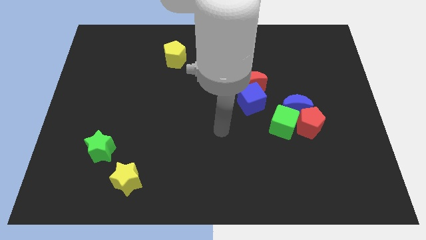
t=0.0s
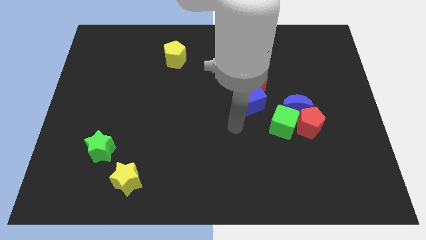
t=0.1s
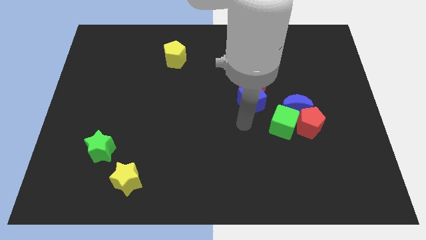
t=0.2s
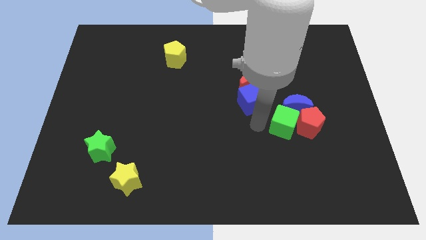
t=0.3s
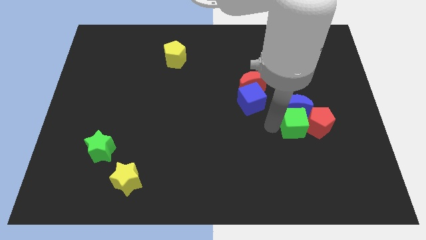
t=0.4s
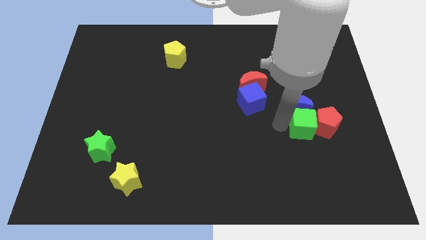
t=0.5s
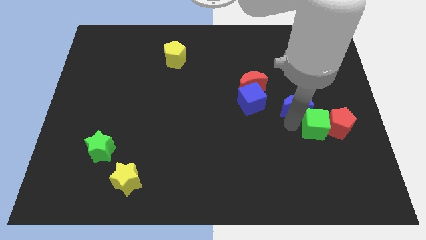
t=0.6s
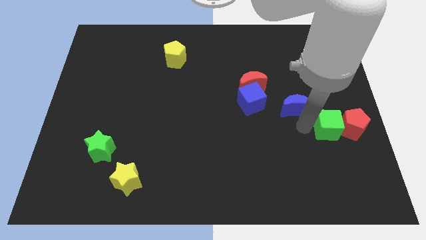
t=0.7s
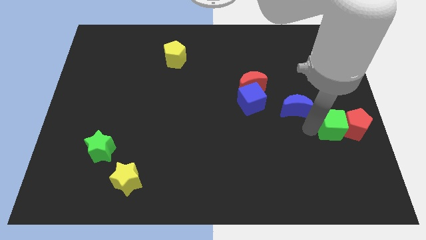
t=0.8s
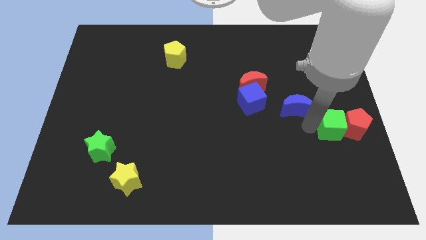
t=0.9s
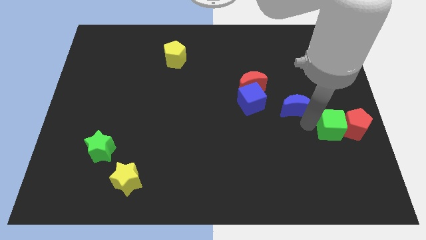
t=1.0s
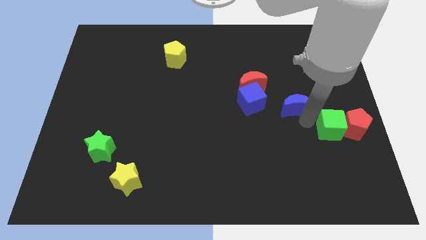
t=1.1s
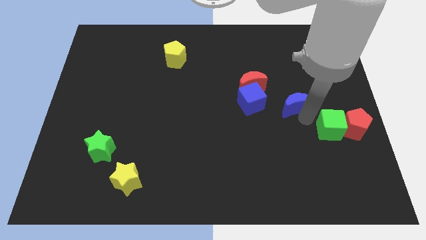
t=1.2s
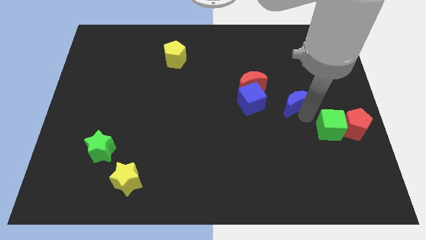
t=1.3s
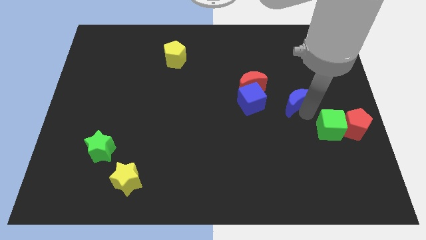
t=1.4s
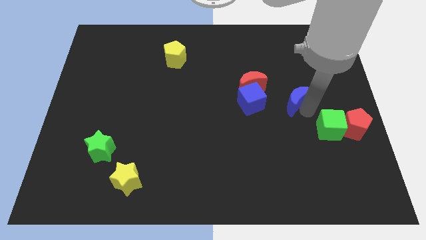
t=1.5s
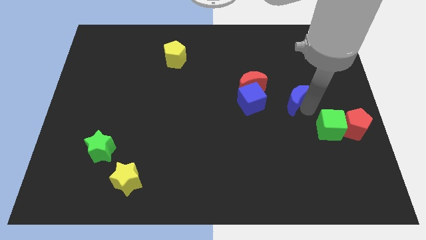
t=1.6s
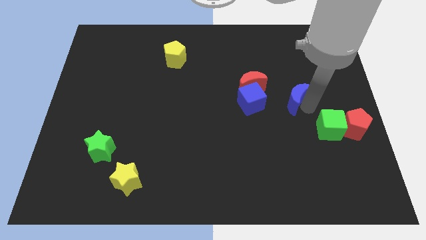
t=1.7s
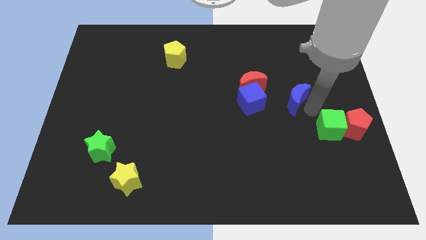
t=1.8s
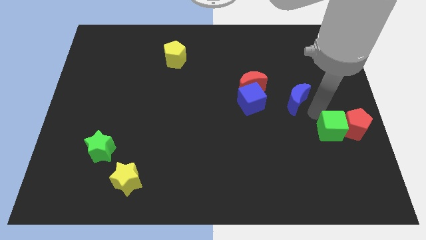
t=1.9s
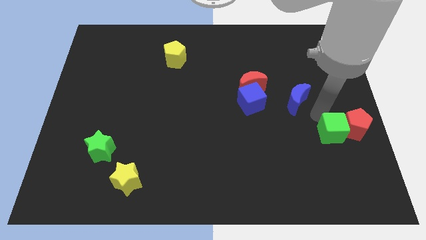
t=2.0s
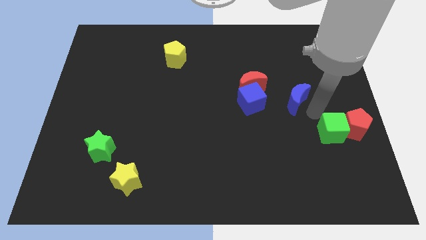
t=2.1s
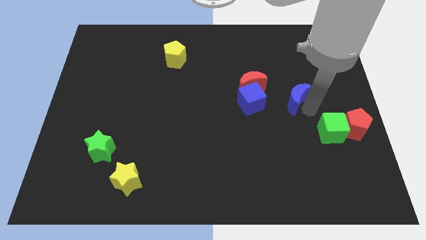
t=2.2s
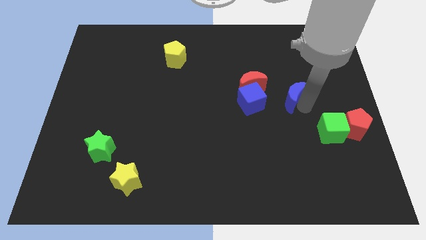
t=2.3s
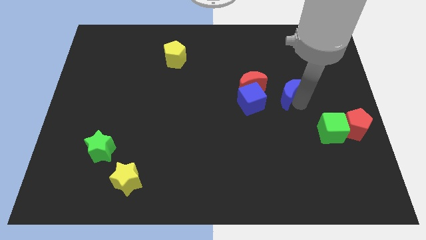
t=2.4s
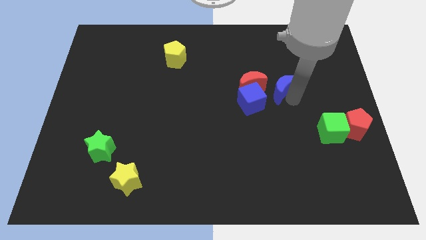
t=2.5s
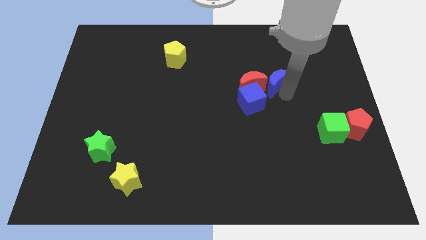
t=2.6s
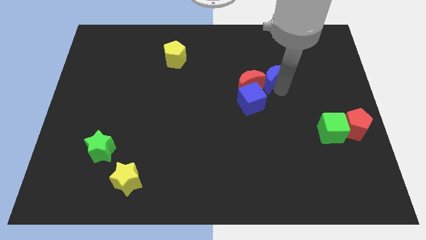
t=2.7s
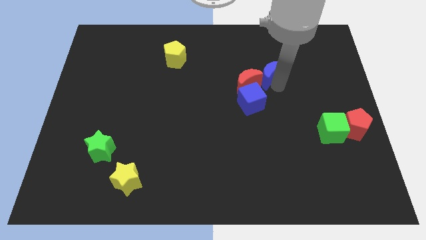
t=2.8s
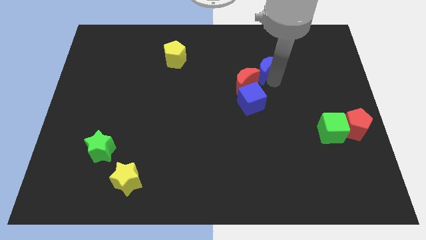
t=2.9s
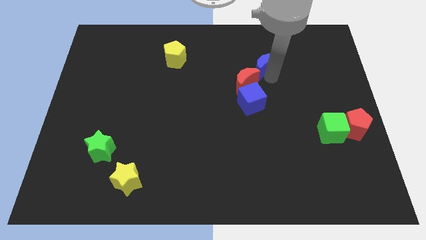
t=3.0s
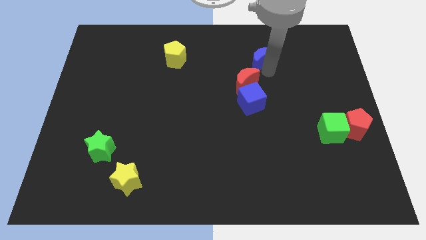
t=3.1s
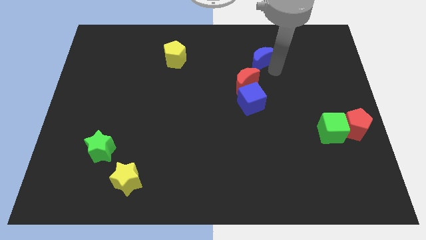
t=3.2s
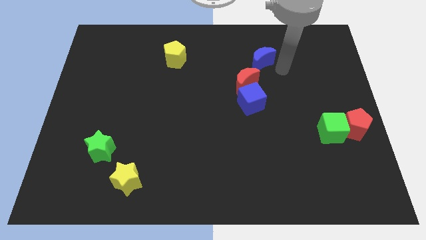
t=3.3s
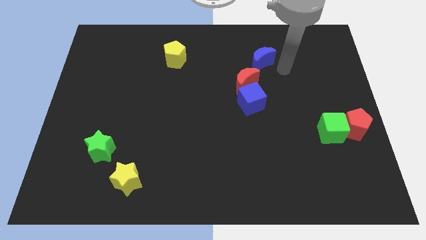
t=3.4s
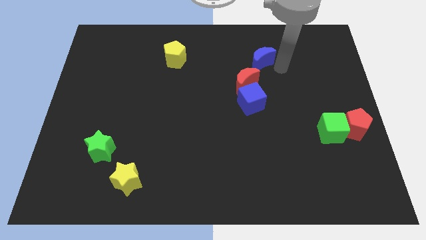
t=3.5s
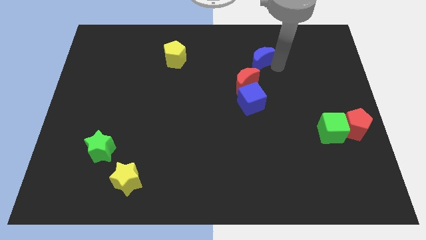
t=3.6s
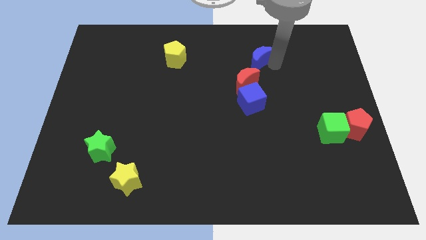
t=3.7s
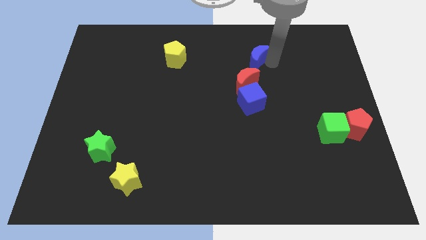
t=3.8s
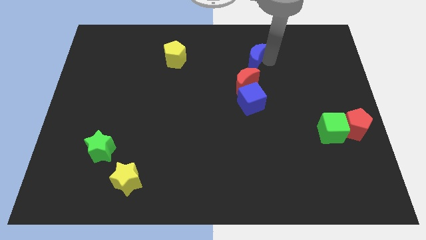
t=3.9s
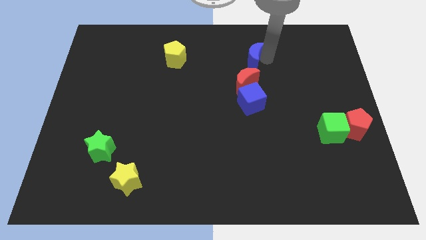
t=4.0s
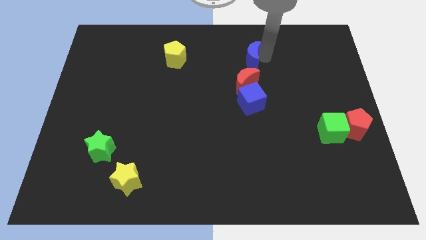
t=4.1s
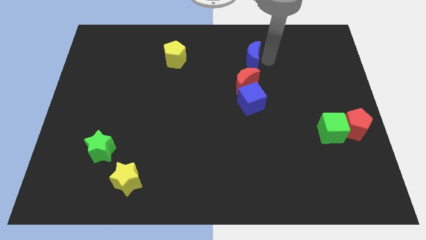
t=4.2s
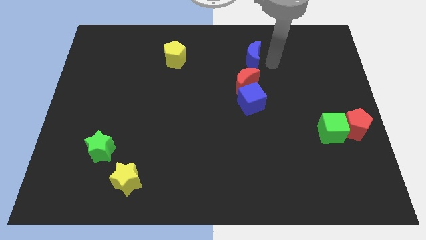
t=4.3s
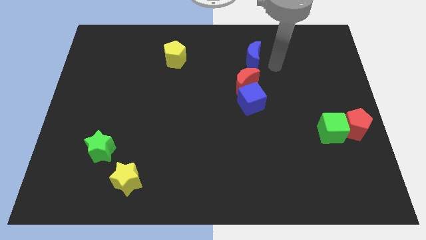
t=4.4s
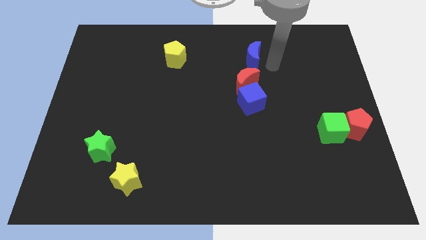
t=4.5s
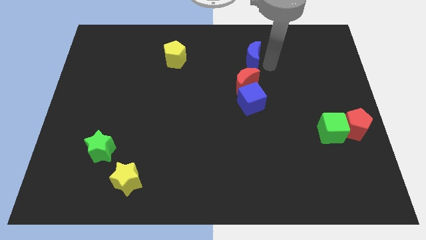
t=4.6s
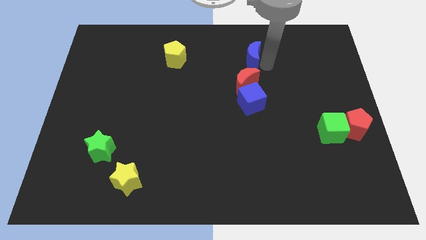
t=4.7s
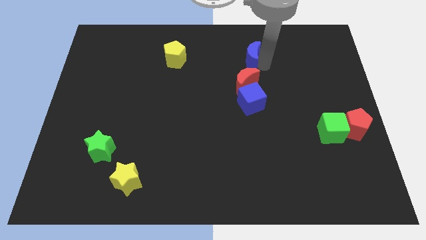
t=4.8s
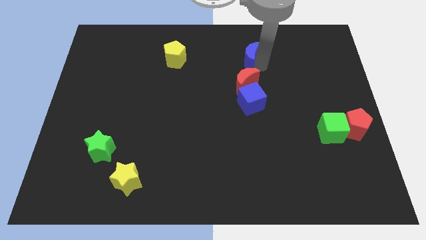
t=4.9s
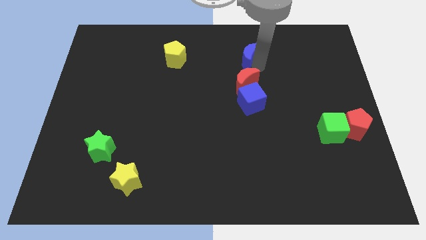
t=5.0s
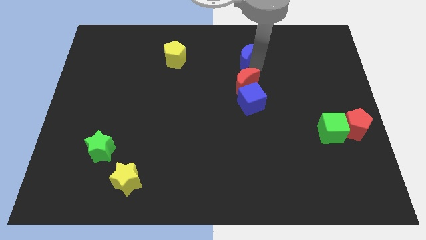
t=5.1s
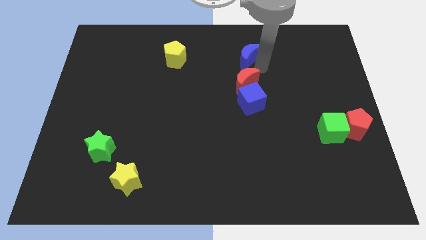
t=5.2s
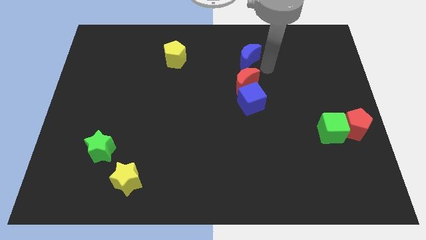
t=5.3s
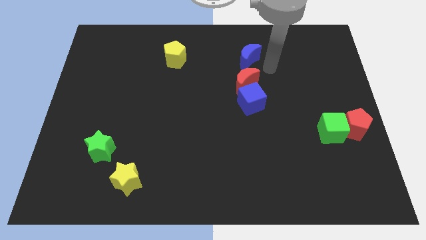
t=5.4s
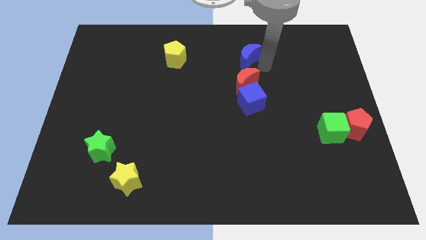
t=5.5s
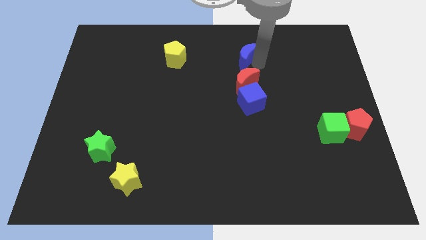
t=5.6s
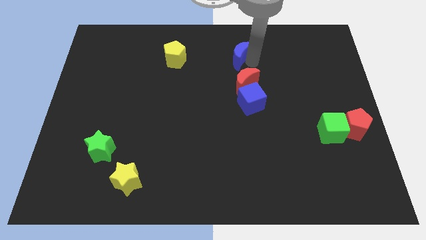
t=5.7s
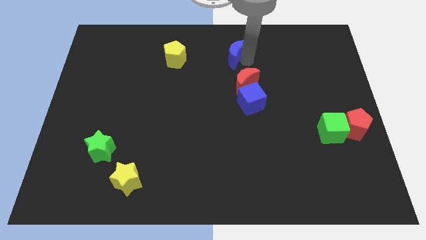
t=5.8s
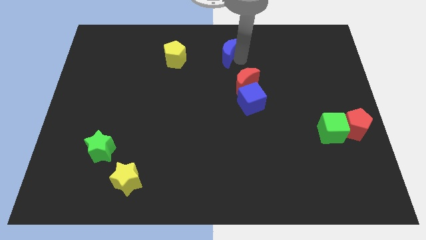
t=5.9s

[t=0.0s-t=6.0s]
move the blue moon to the top side
